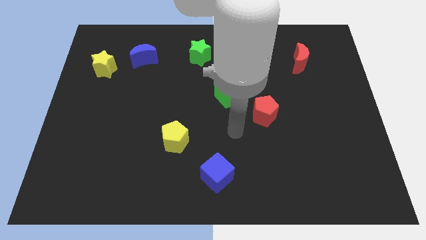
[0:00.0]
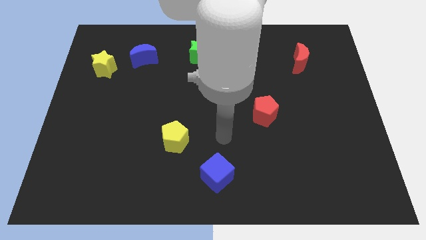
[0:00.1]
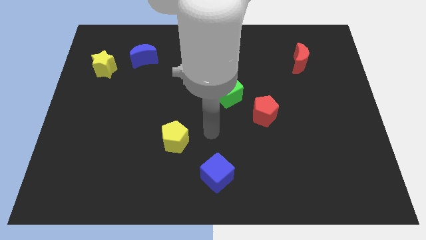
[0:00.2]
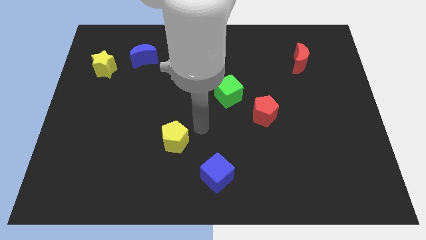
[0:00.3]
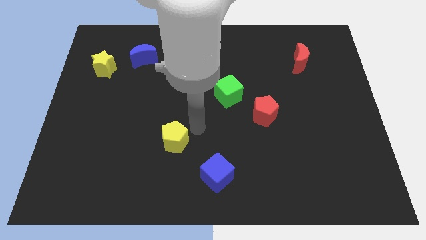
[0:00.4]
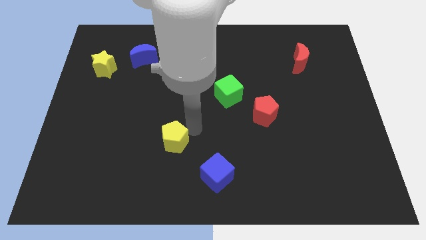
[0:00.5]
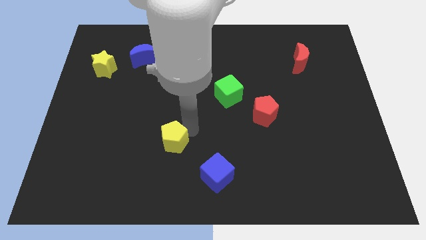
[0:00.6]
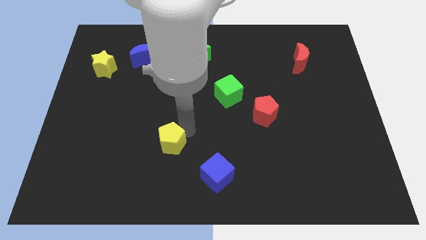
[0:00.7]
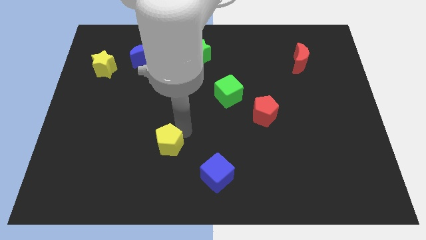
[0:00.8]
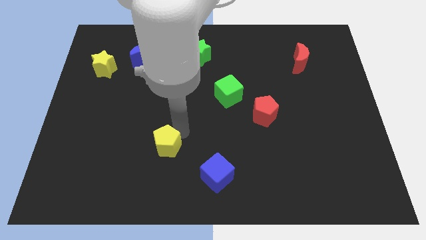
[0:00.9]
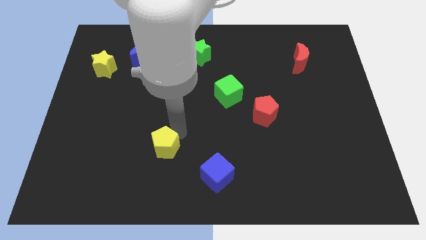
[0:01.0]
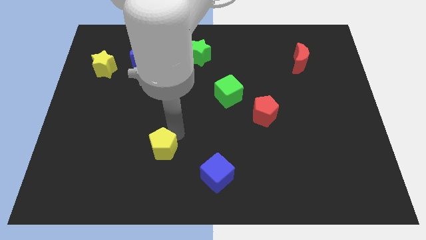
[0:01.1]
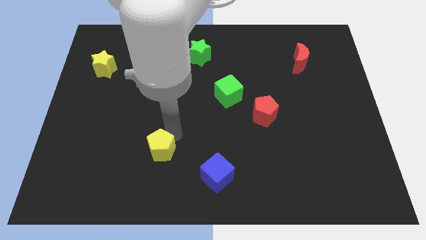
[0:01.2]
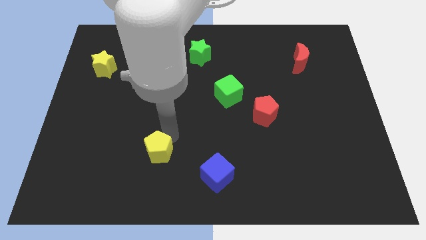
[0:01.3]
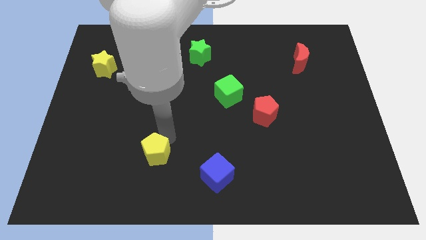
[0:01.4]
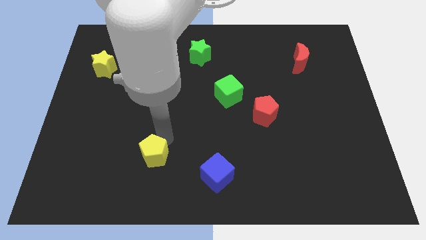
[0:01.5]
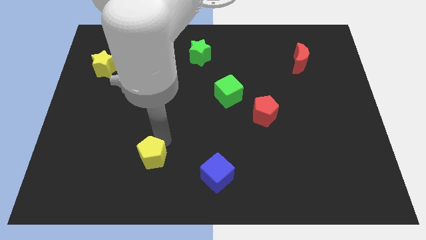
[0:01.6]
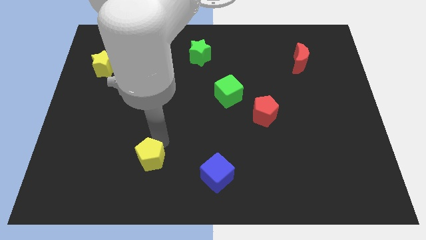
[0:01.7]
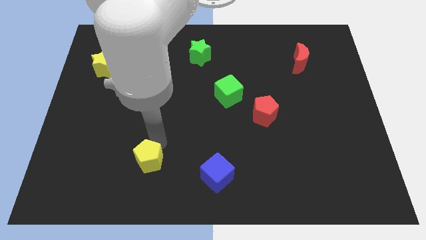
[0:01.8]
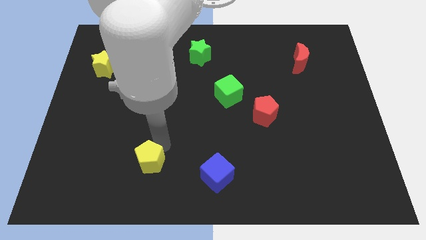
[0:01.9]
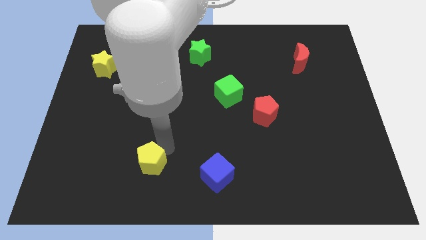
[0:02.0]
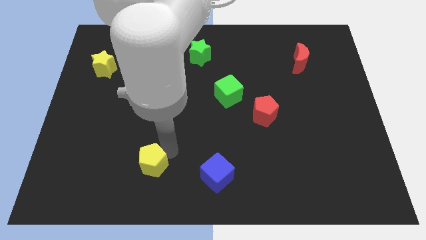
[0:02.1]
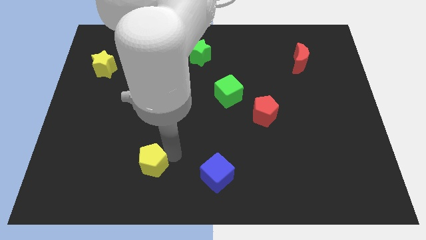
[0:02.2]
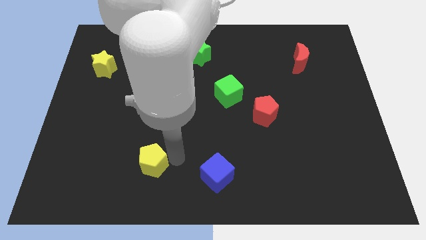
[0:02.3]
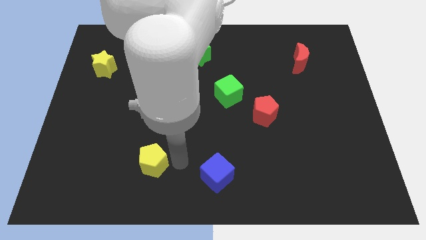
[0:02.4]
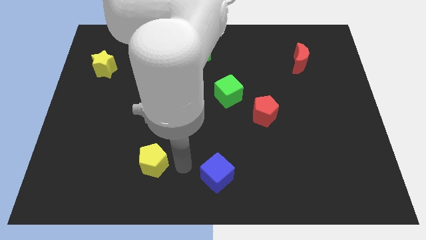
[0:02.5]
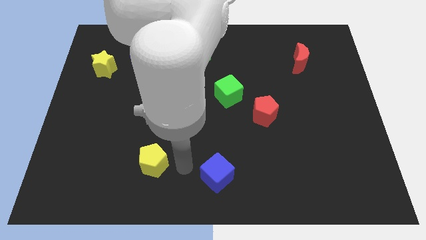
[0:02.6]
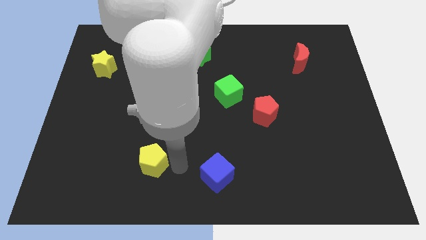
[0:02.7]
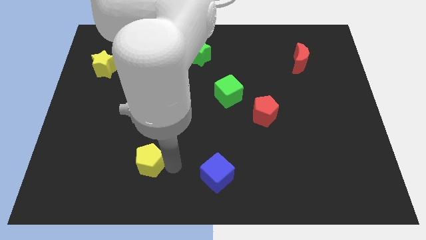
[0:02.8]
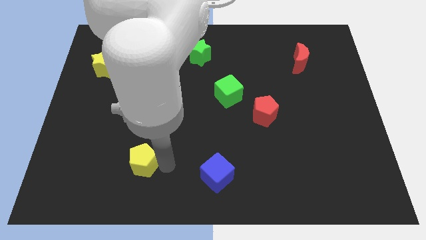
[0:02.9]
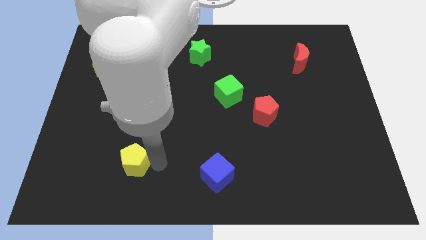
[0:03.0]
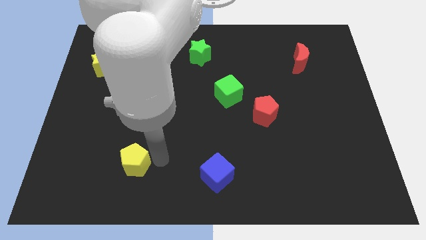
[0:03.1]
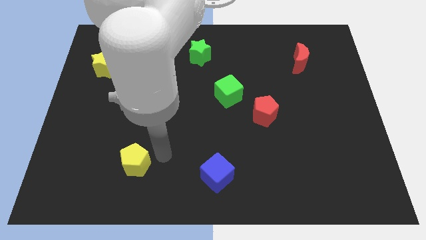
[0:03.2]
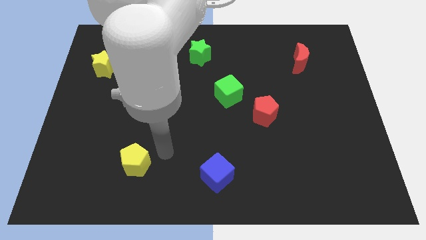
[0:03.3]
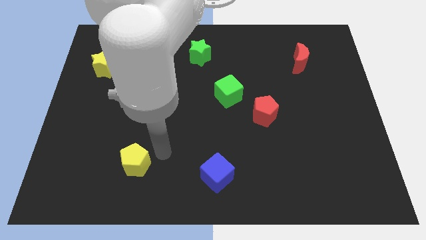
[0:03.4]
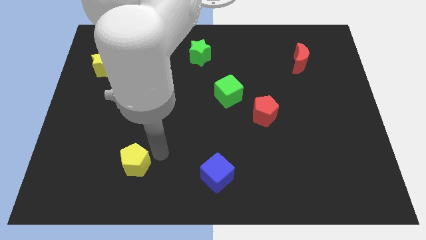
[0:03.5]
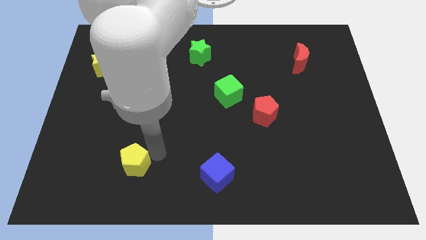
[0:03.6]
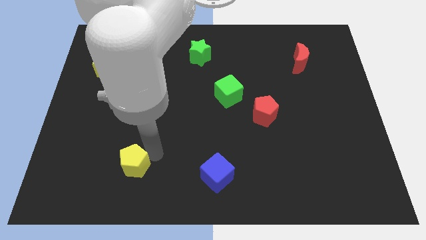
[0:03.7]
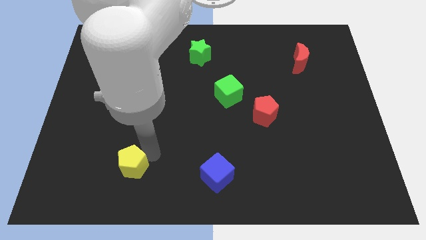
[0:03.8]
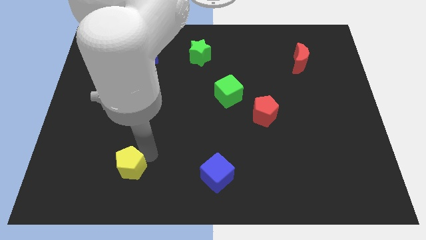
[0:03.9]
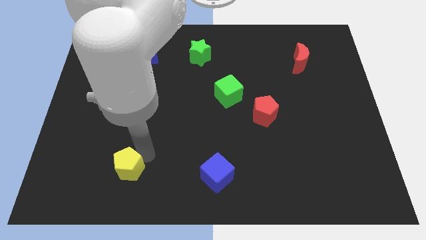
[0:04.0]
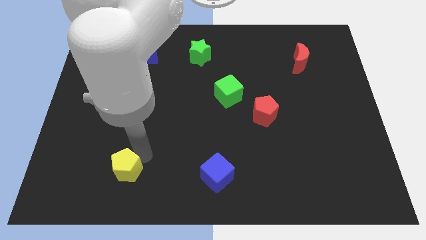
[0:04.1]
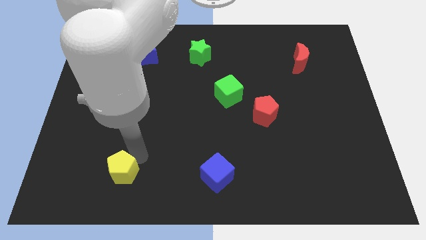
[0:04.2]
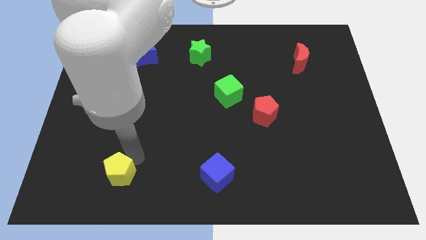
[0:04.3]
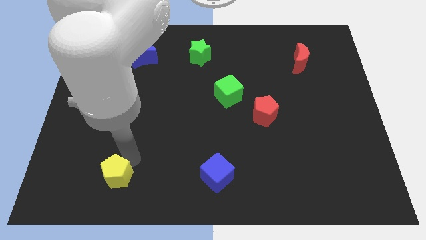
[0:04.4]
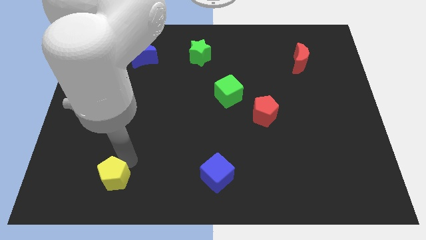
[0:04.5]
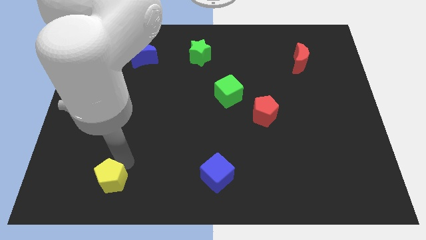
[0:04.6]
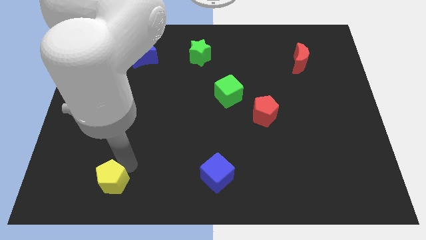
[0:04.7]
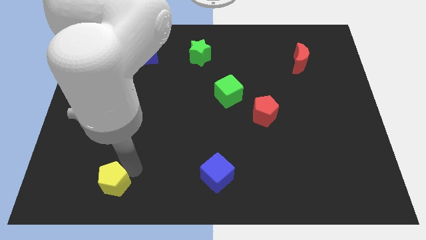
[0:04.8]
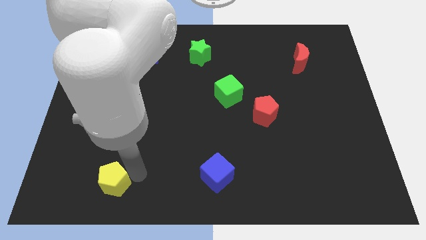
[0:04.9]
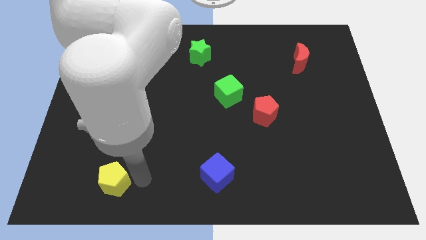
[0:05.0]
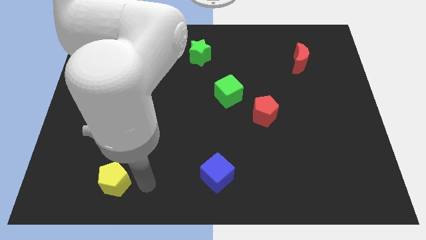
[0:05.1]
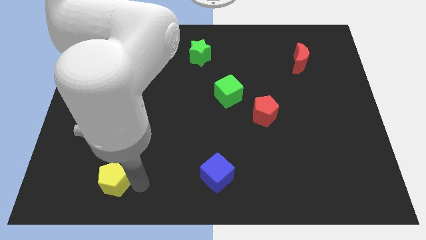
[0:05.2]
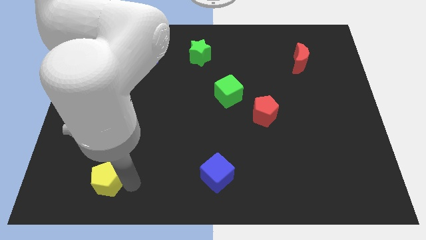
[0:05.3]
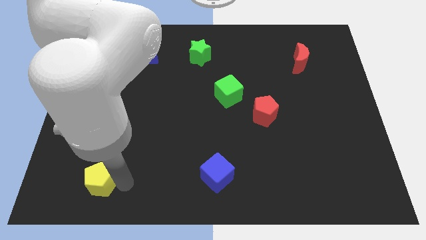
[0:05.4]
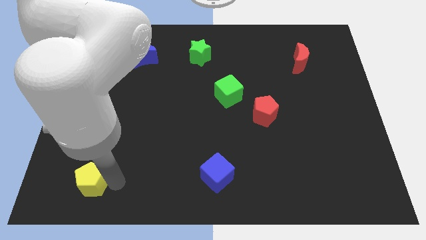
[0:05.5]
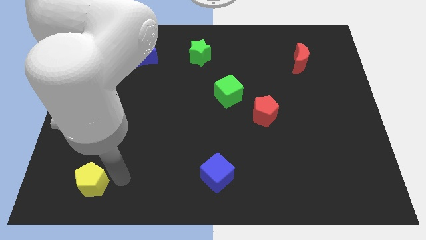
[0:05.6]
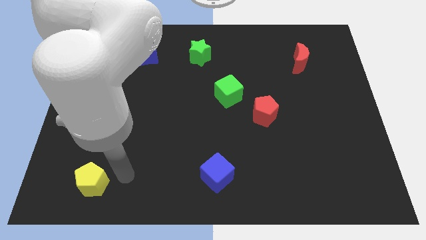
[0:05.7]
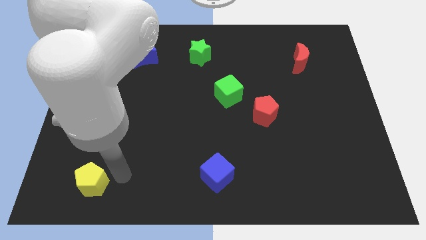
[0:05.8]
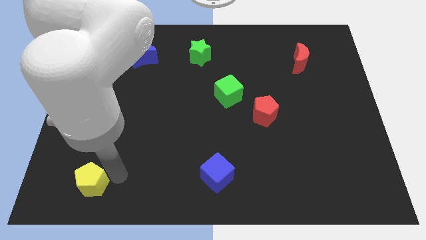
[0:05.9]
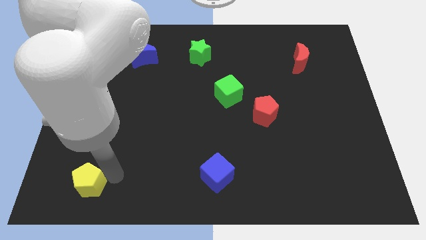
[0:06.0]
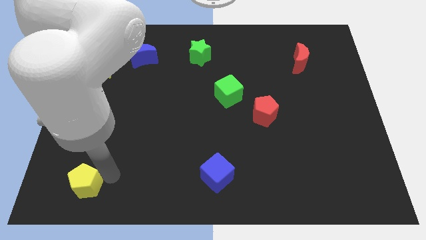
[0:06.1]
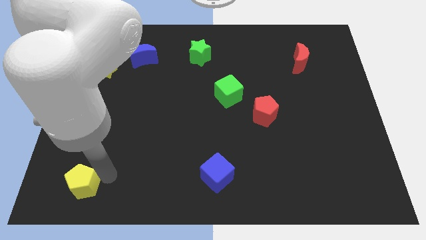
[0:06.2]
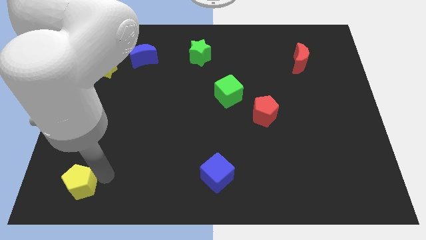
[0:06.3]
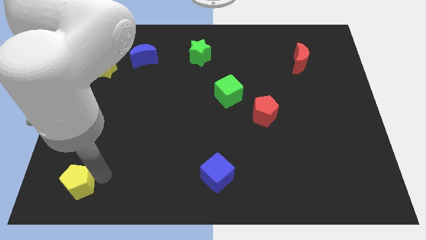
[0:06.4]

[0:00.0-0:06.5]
put the yellow pentagon to the bottom left of the board
